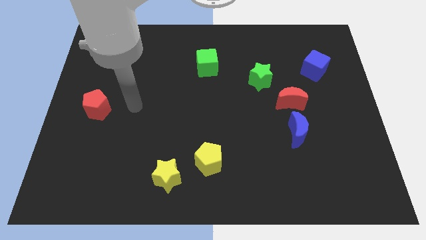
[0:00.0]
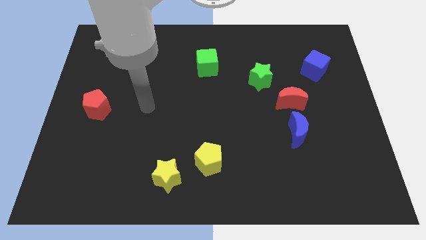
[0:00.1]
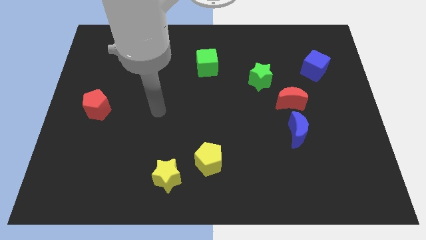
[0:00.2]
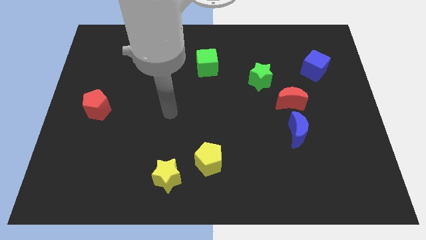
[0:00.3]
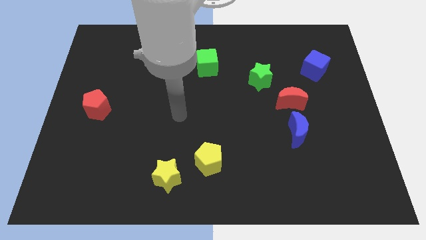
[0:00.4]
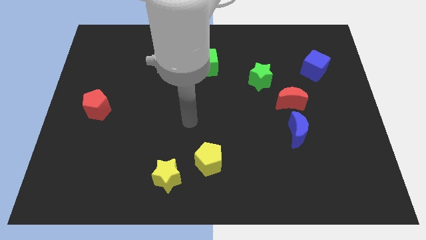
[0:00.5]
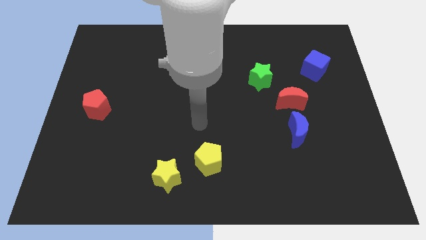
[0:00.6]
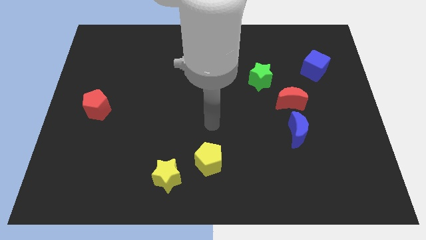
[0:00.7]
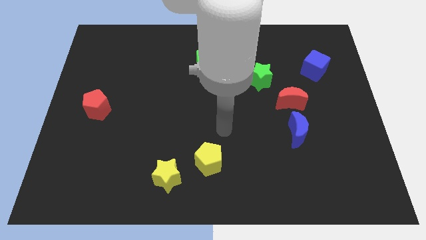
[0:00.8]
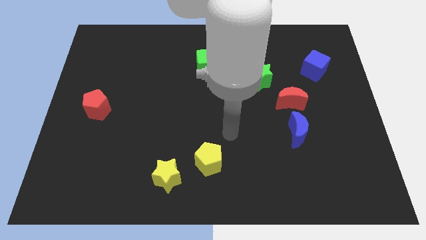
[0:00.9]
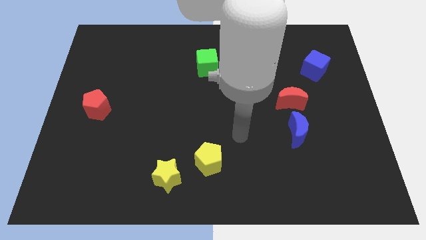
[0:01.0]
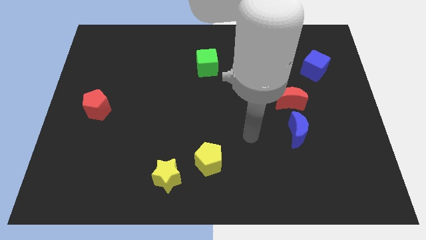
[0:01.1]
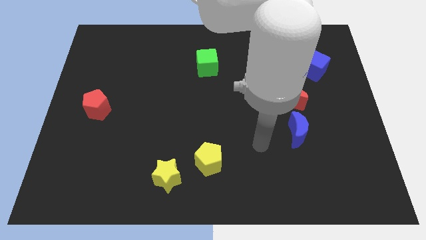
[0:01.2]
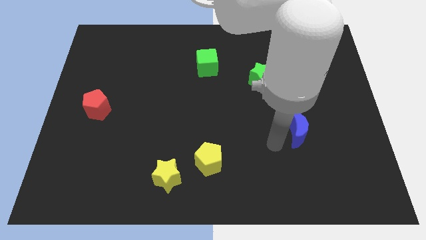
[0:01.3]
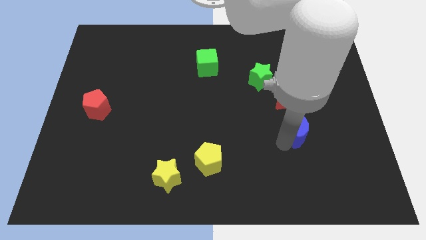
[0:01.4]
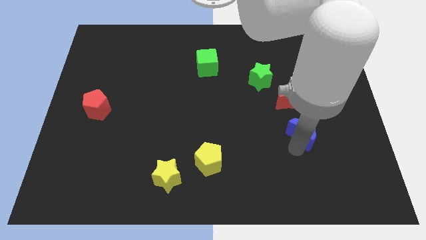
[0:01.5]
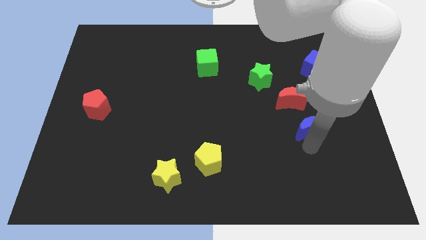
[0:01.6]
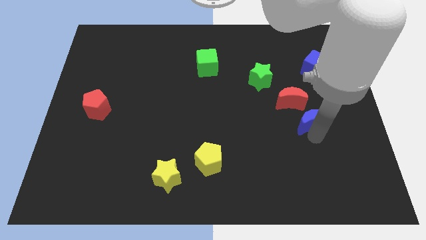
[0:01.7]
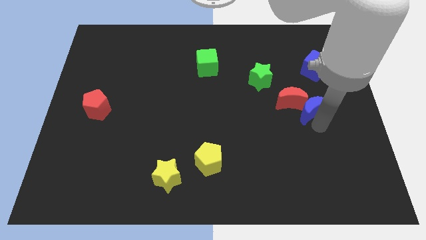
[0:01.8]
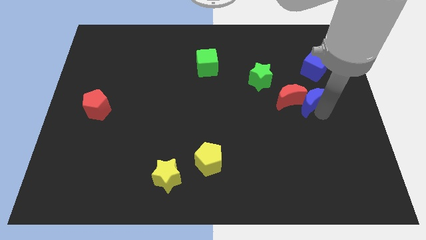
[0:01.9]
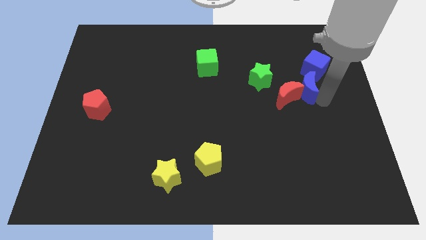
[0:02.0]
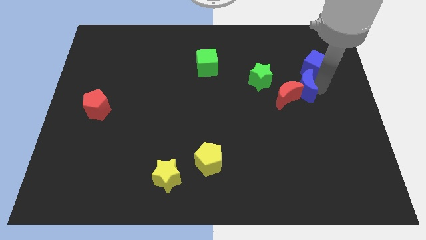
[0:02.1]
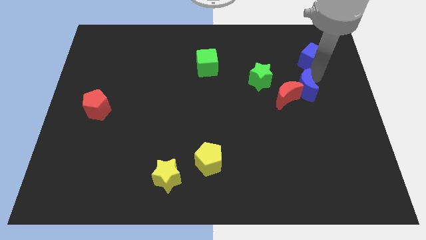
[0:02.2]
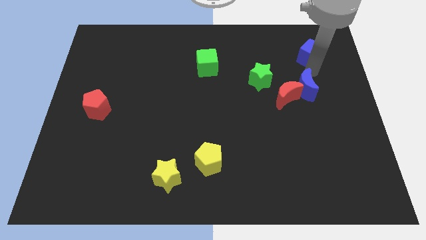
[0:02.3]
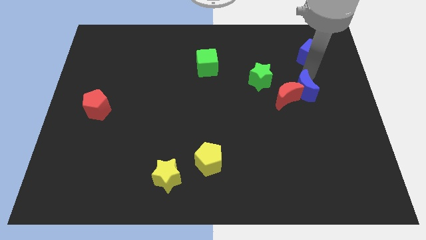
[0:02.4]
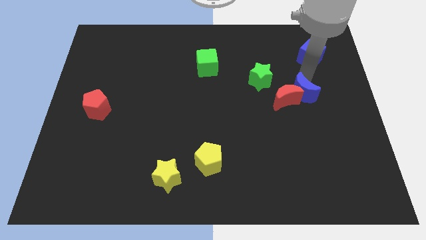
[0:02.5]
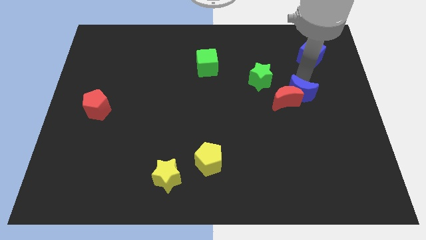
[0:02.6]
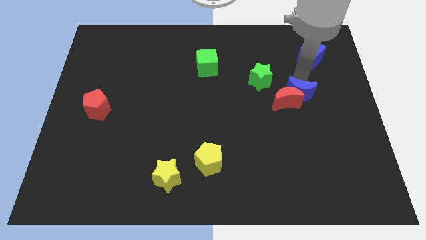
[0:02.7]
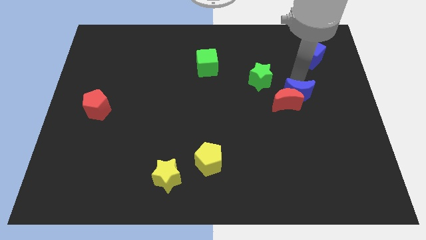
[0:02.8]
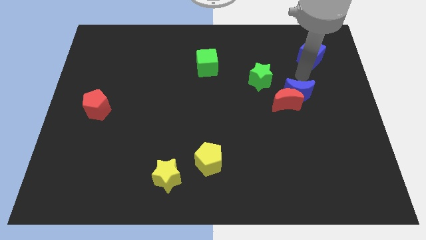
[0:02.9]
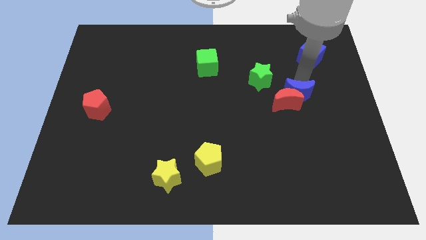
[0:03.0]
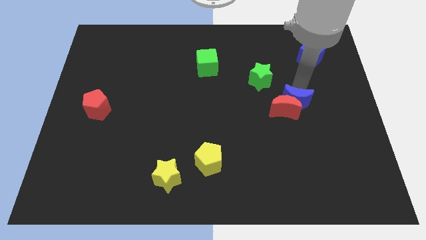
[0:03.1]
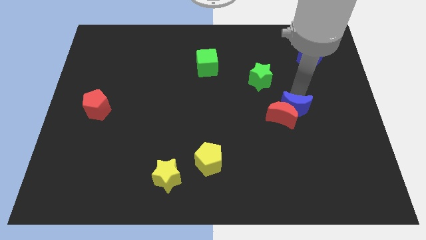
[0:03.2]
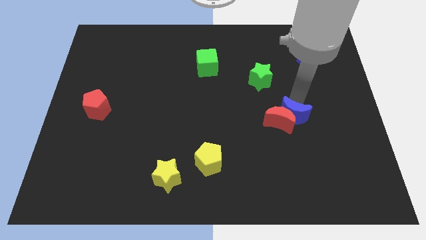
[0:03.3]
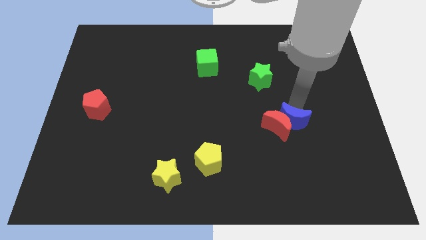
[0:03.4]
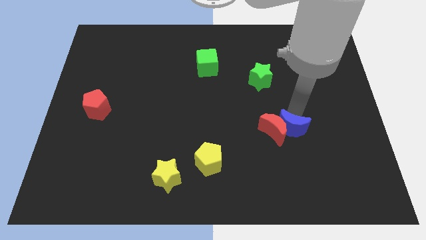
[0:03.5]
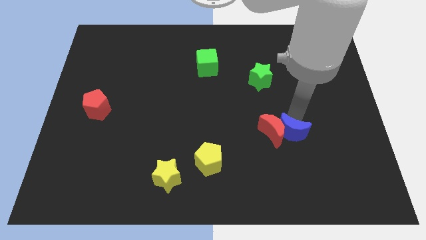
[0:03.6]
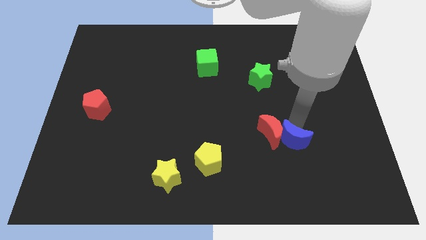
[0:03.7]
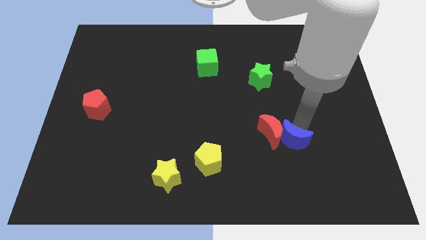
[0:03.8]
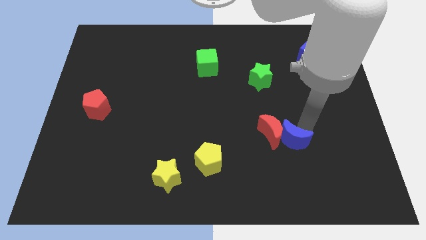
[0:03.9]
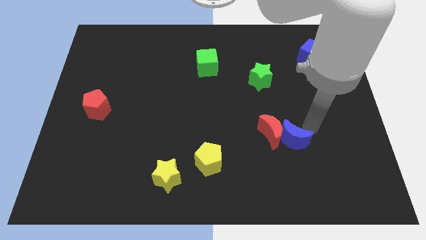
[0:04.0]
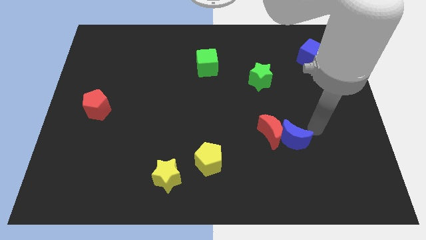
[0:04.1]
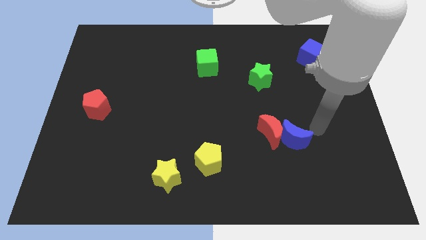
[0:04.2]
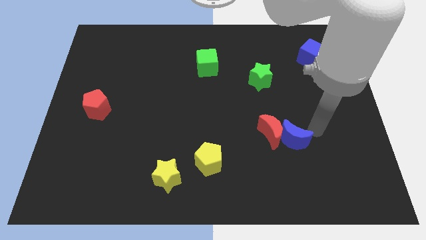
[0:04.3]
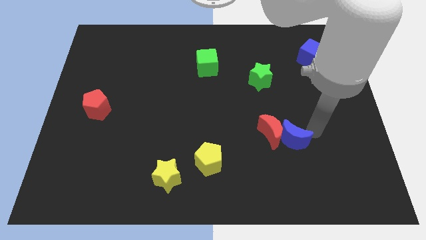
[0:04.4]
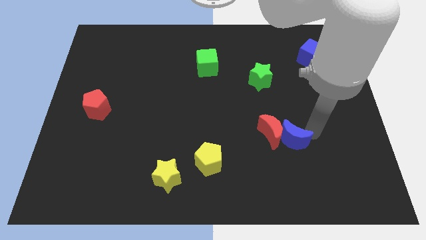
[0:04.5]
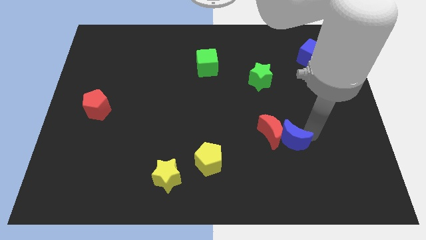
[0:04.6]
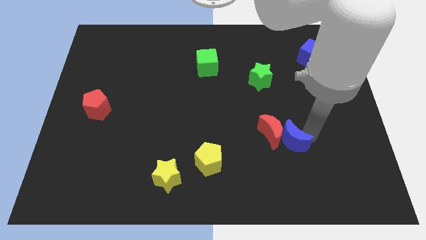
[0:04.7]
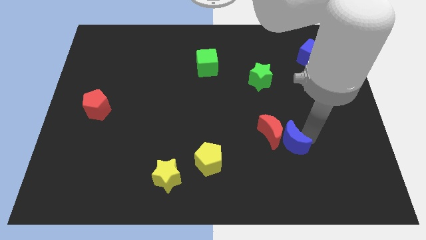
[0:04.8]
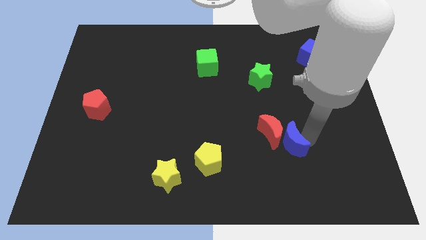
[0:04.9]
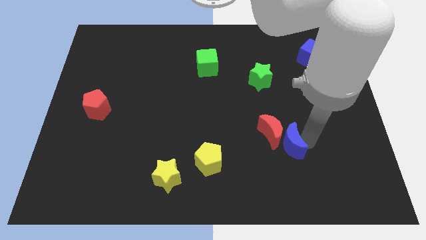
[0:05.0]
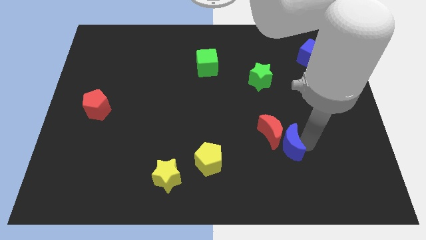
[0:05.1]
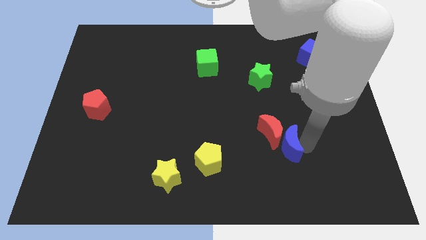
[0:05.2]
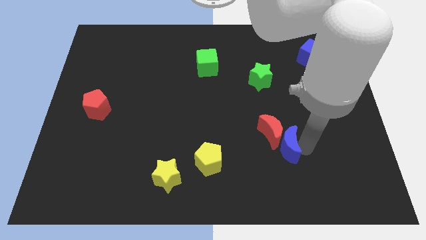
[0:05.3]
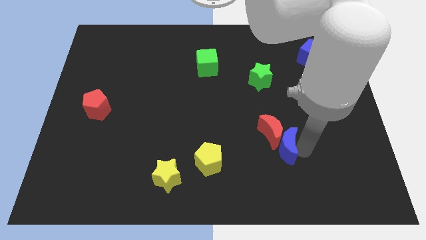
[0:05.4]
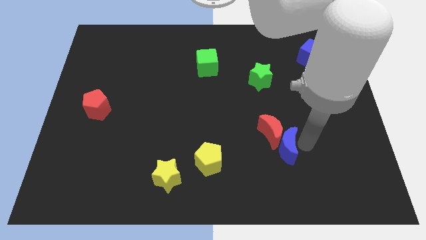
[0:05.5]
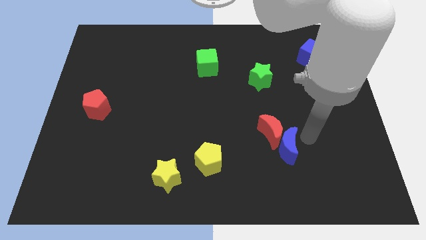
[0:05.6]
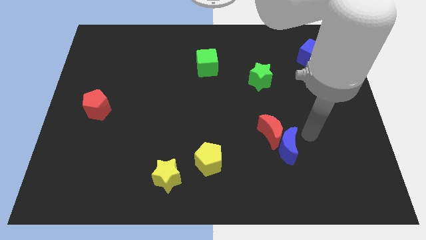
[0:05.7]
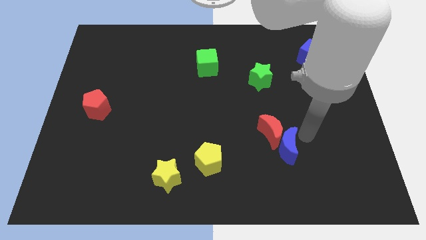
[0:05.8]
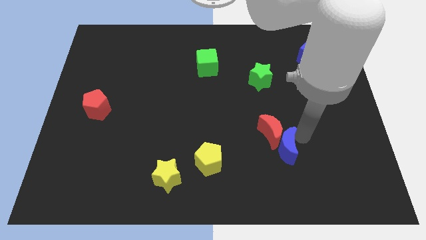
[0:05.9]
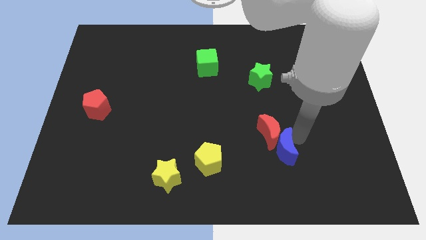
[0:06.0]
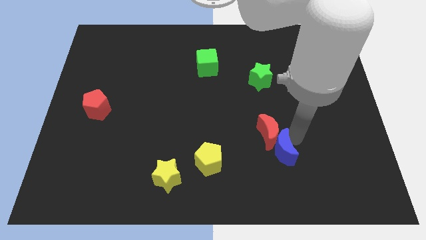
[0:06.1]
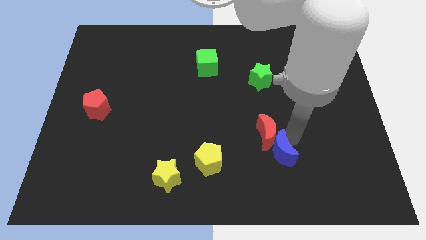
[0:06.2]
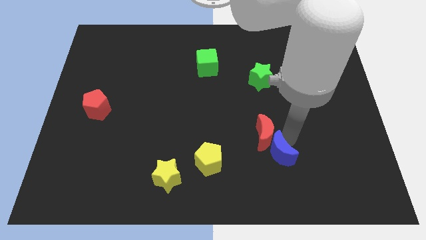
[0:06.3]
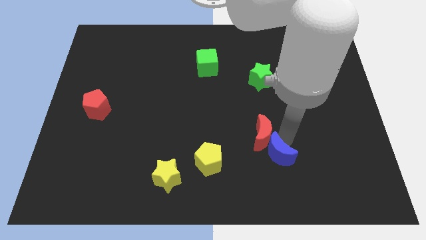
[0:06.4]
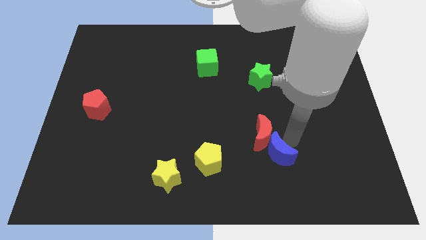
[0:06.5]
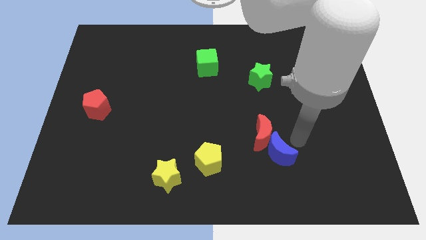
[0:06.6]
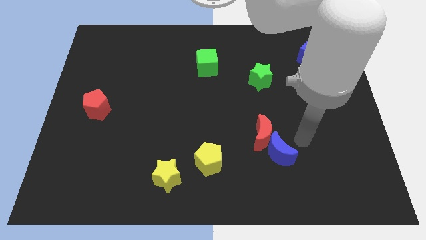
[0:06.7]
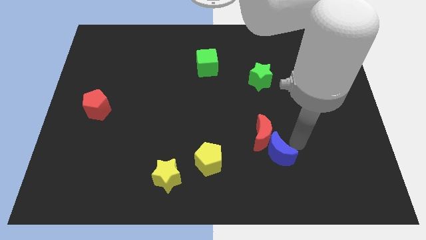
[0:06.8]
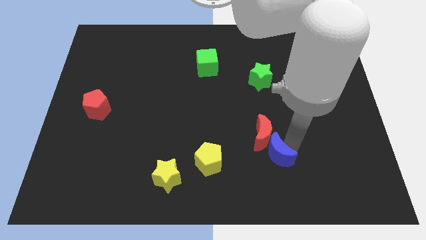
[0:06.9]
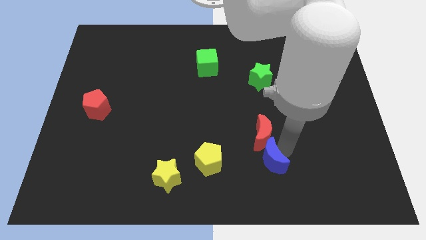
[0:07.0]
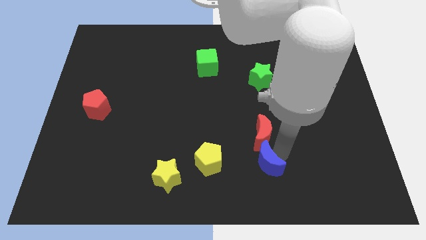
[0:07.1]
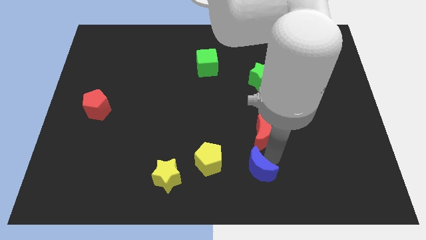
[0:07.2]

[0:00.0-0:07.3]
move the blue moon to the bottom side
